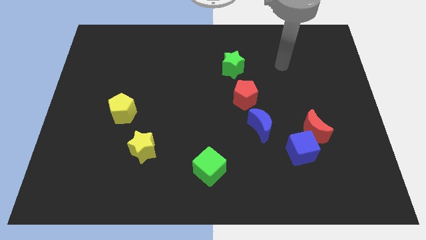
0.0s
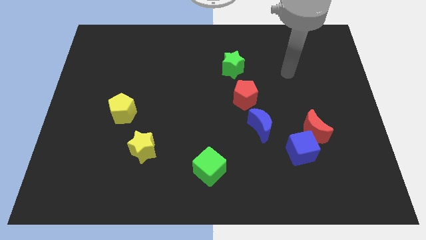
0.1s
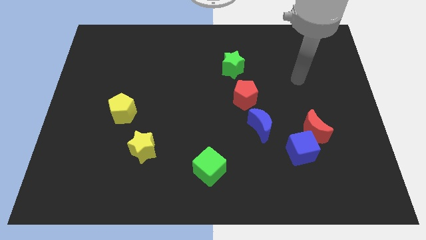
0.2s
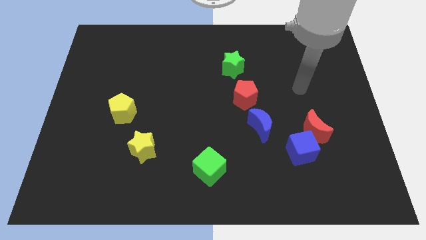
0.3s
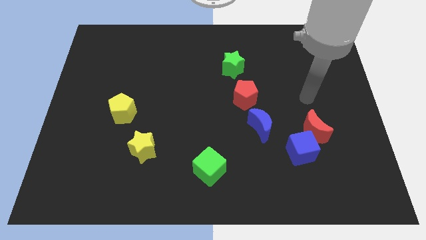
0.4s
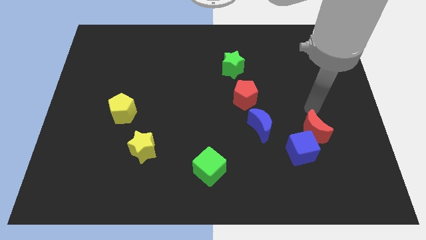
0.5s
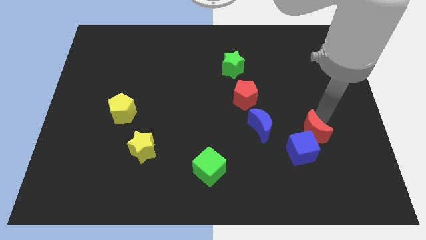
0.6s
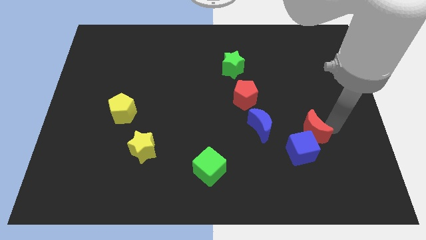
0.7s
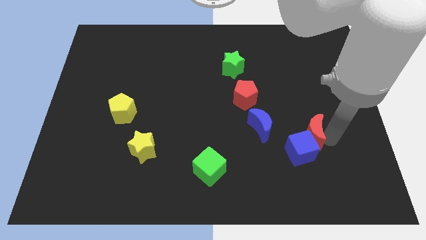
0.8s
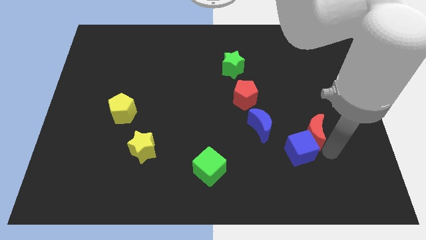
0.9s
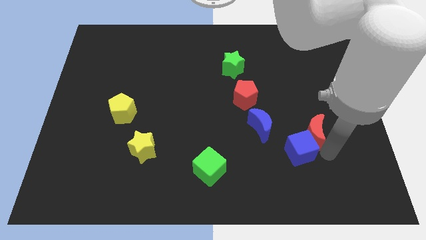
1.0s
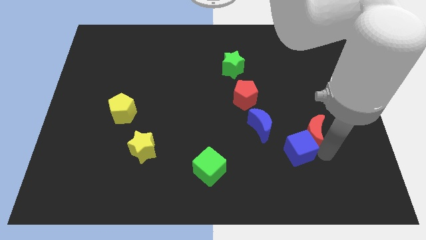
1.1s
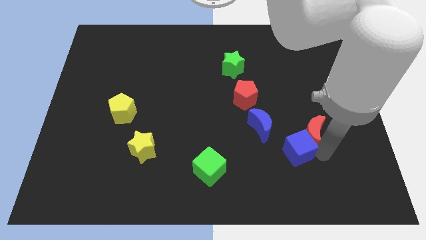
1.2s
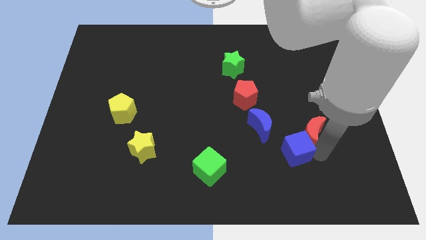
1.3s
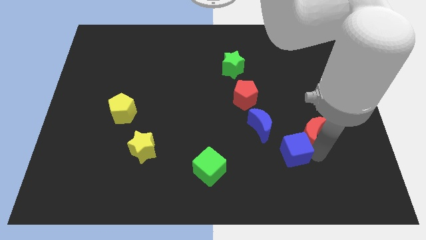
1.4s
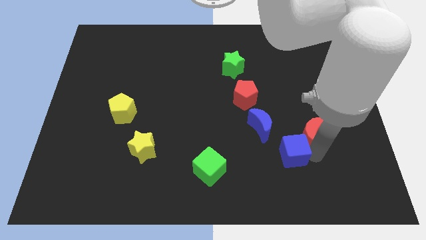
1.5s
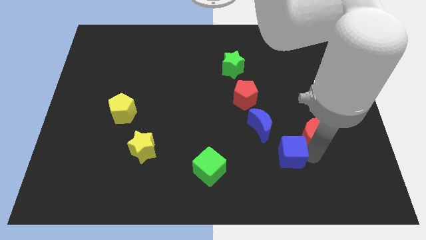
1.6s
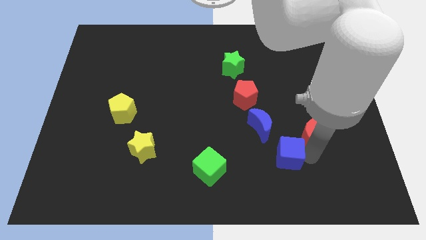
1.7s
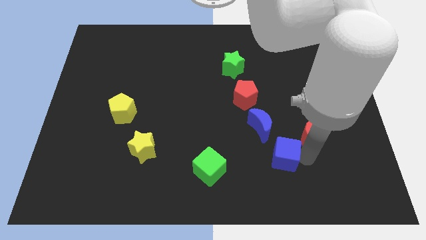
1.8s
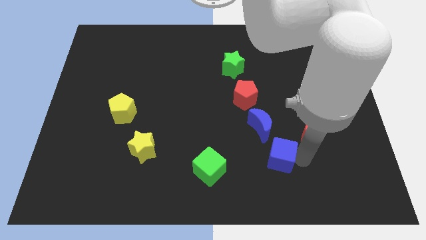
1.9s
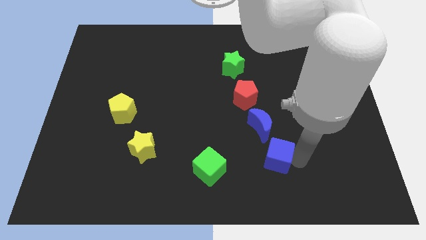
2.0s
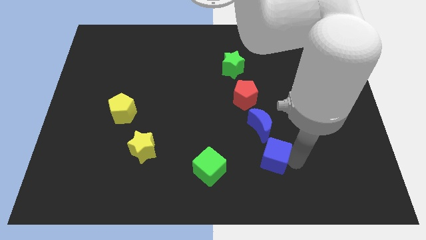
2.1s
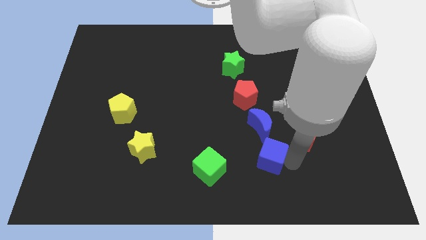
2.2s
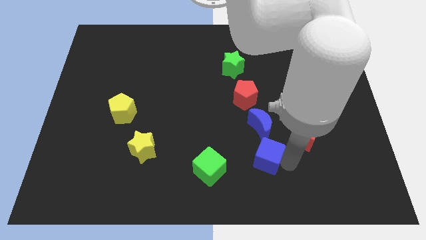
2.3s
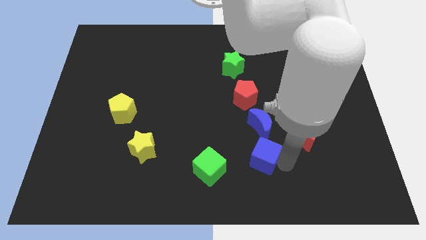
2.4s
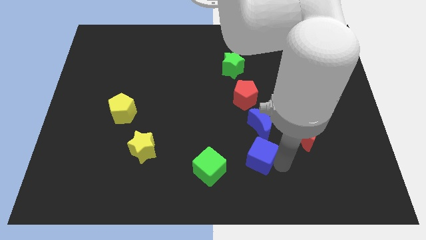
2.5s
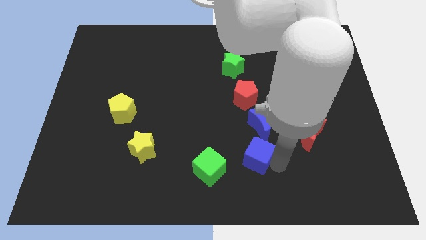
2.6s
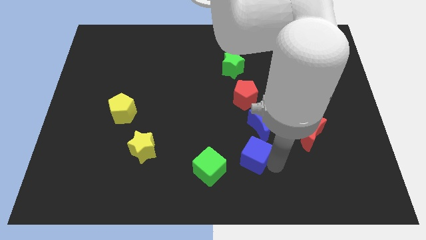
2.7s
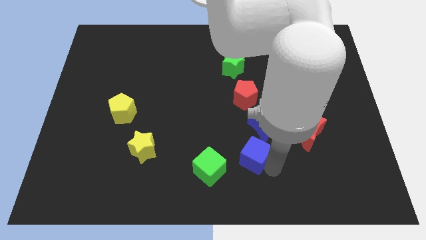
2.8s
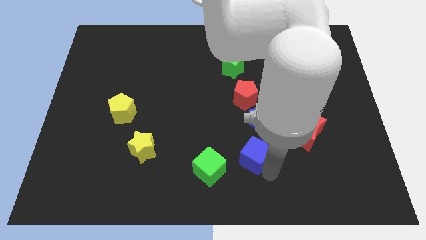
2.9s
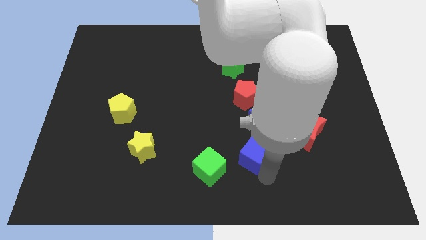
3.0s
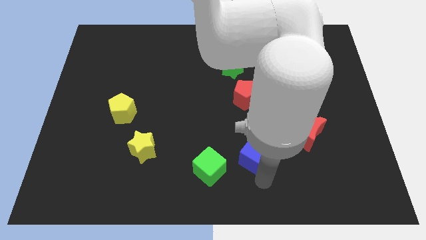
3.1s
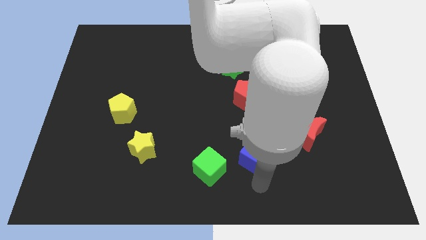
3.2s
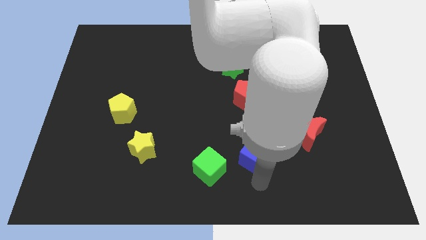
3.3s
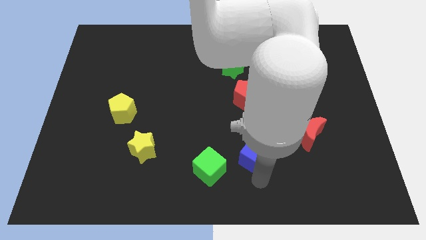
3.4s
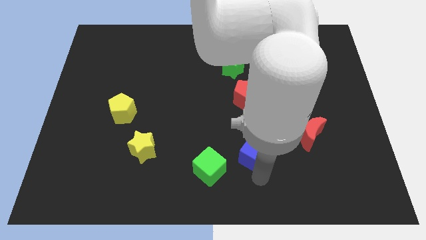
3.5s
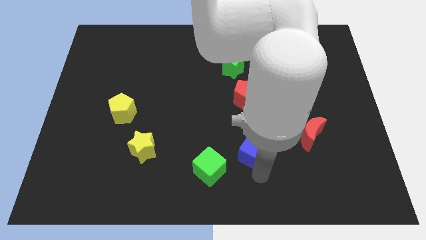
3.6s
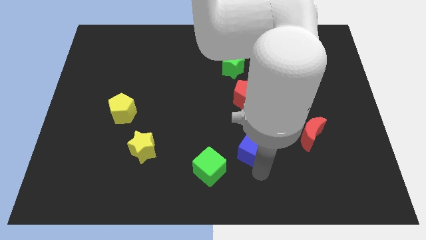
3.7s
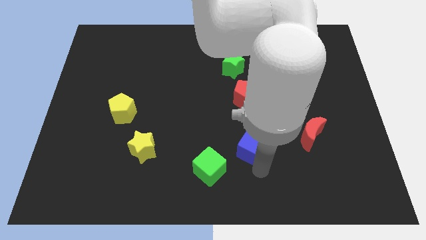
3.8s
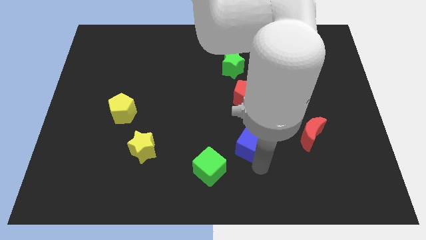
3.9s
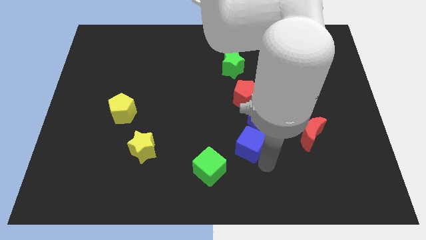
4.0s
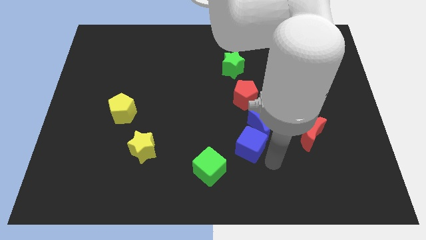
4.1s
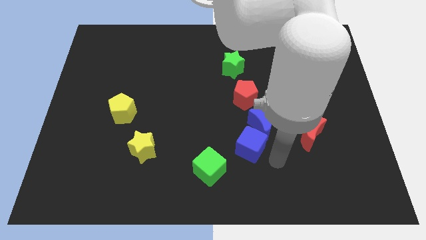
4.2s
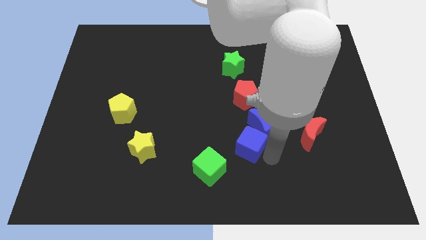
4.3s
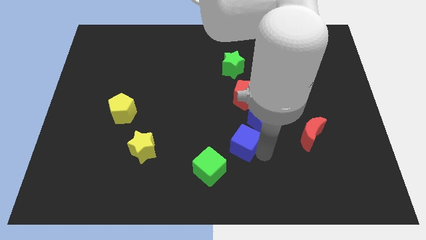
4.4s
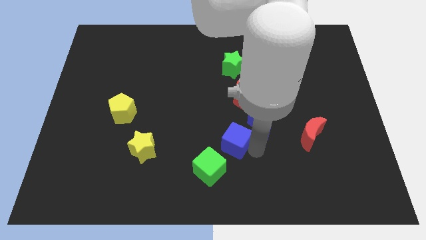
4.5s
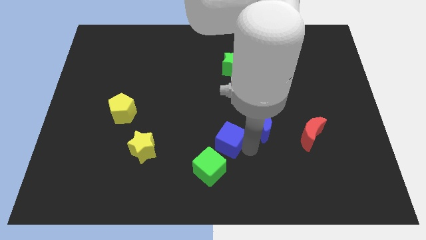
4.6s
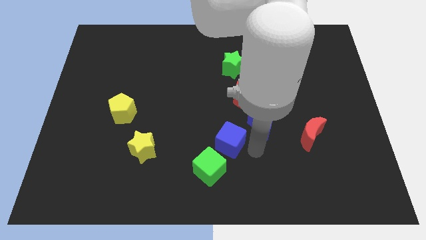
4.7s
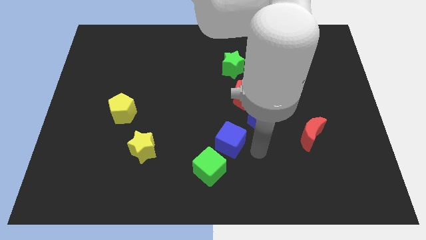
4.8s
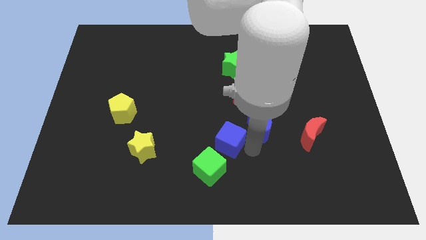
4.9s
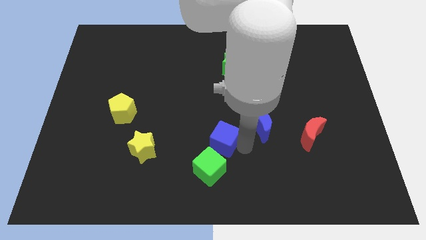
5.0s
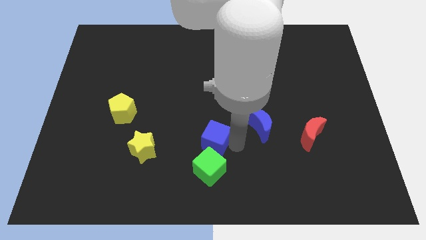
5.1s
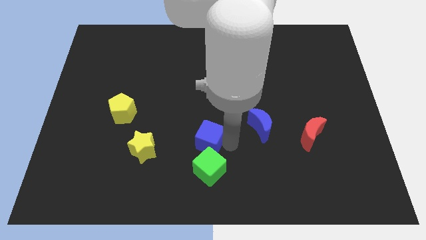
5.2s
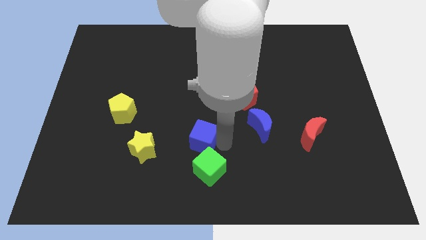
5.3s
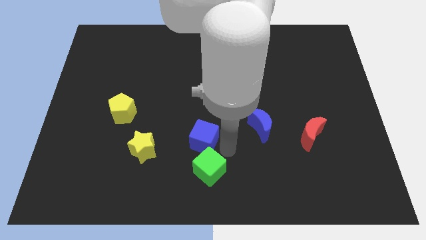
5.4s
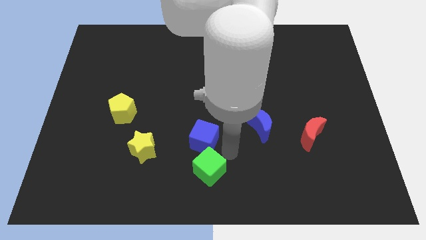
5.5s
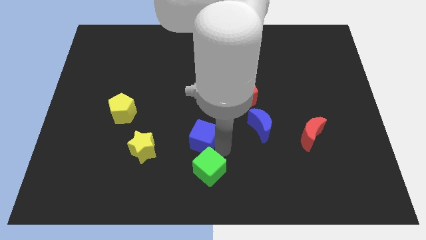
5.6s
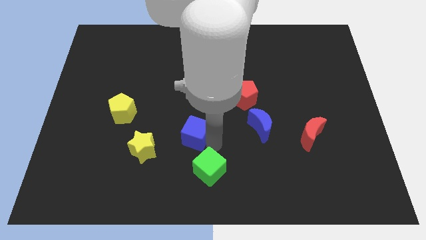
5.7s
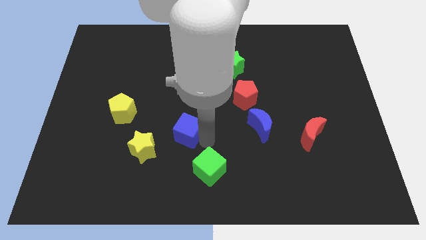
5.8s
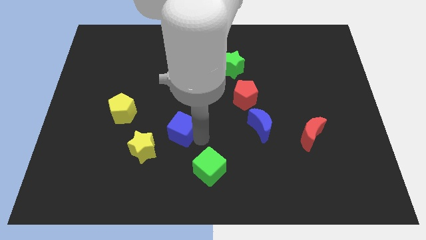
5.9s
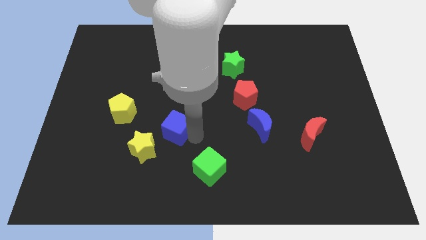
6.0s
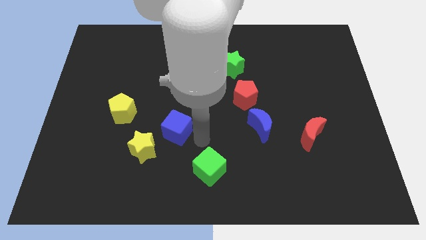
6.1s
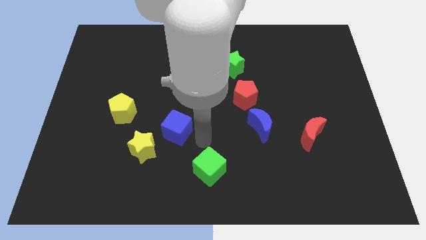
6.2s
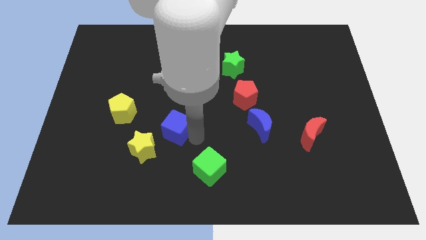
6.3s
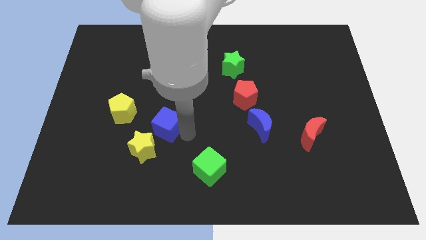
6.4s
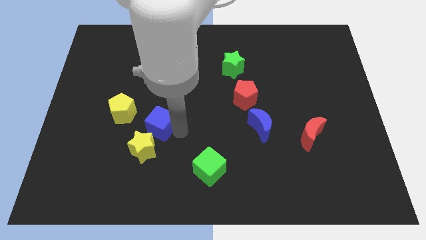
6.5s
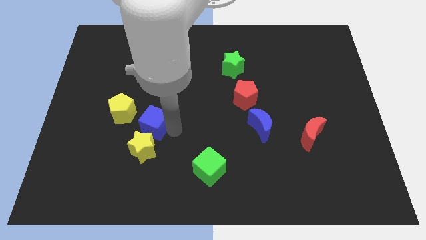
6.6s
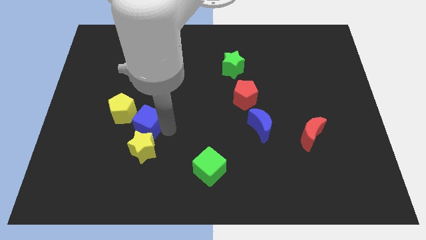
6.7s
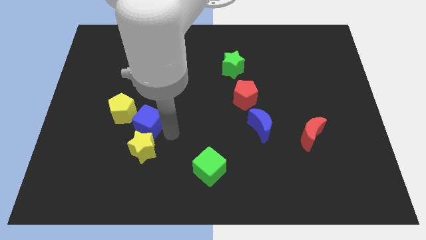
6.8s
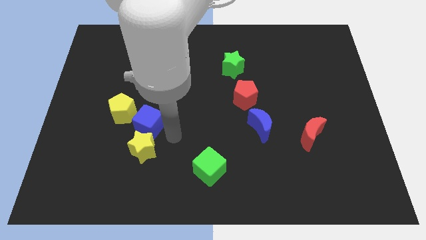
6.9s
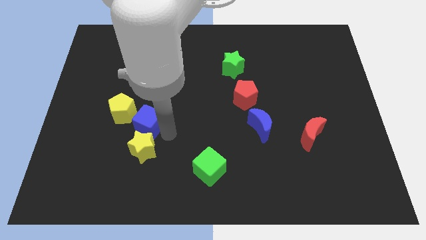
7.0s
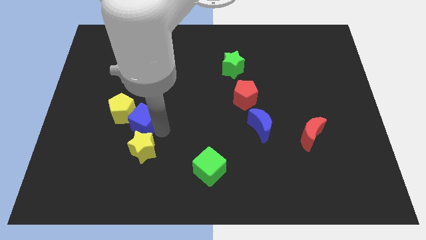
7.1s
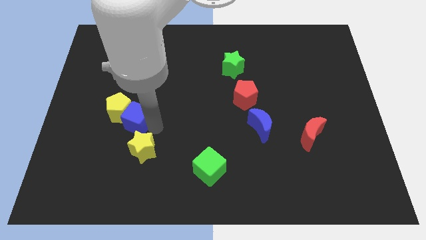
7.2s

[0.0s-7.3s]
move the blue cube next to the yellow pentagon
